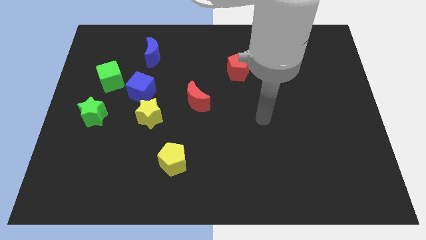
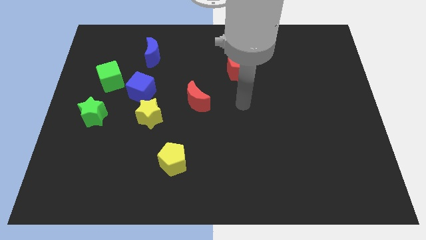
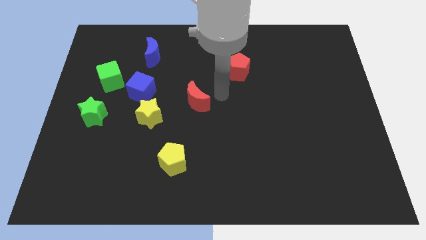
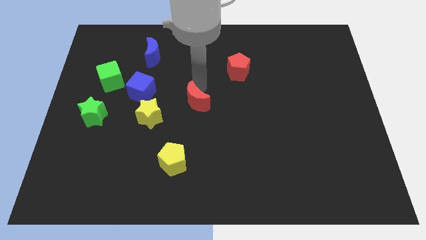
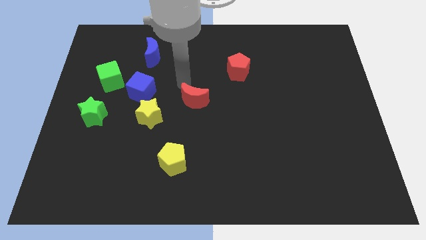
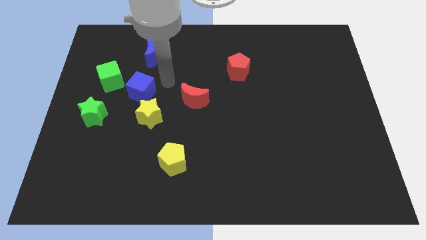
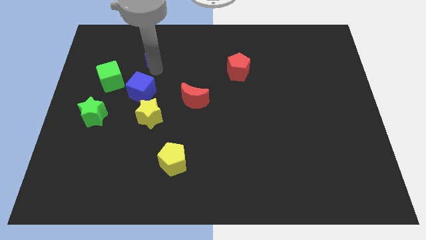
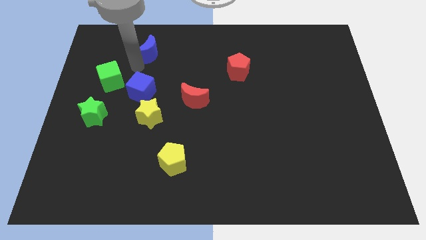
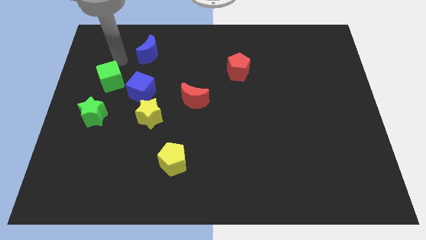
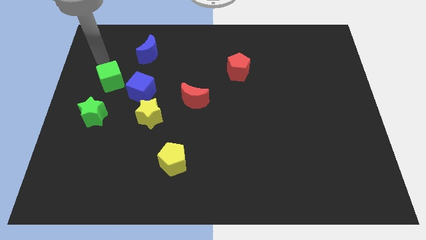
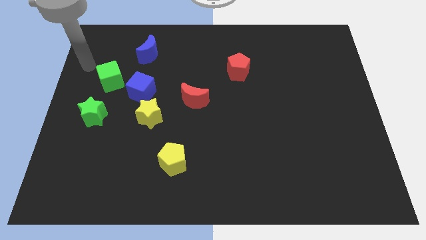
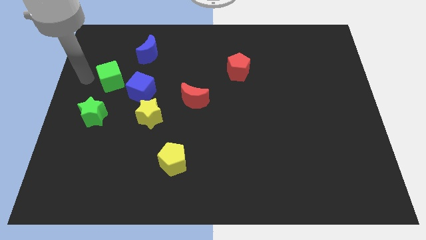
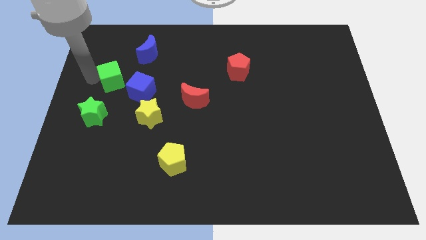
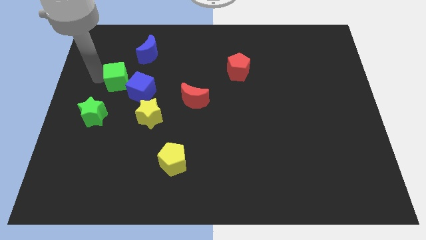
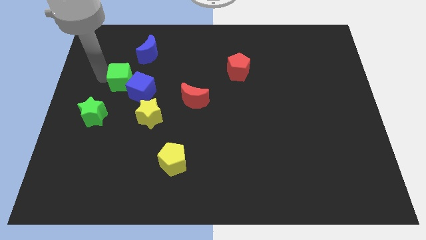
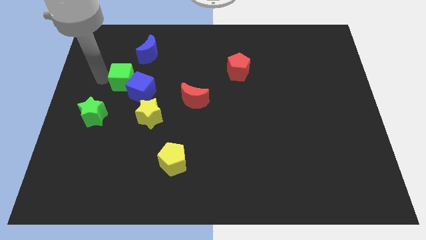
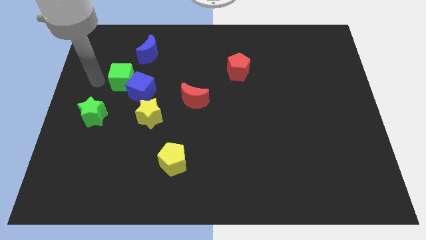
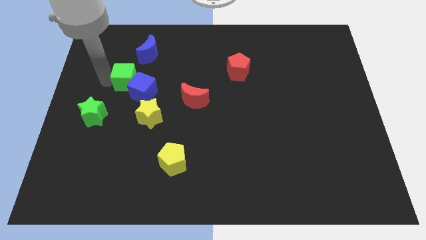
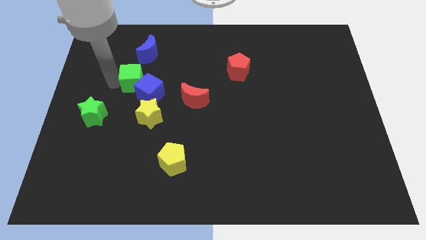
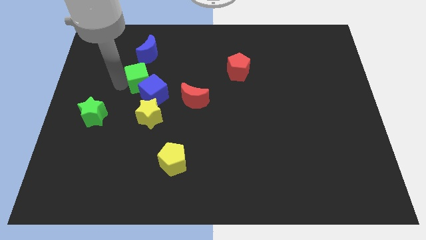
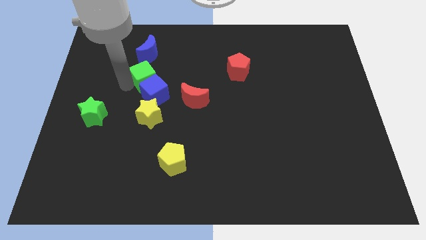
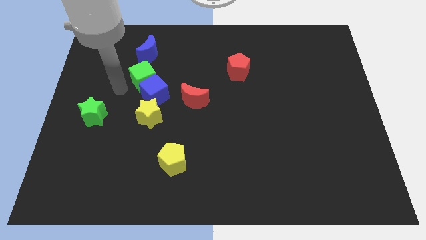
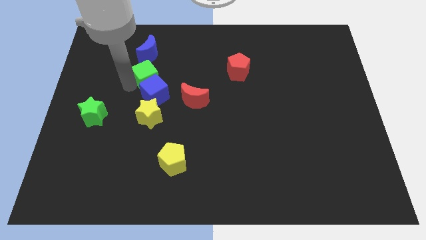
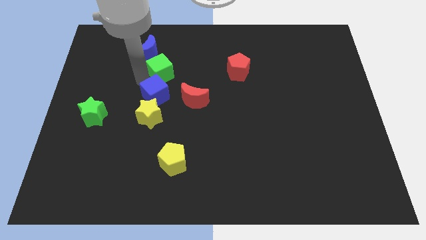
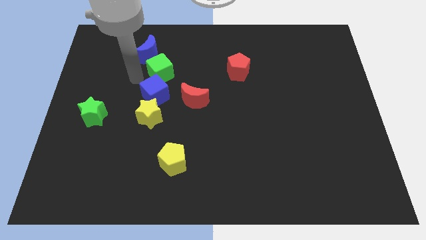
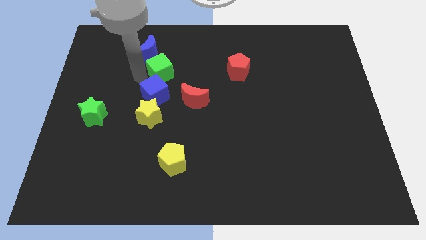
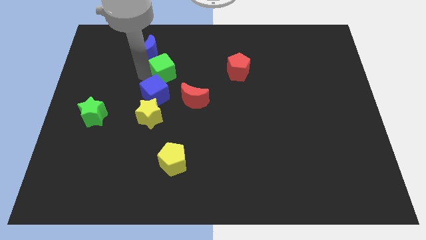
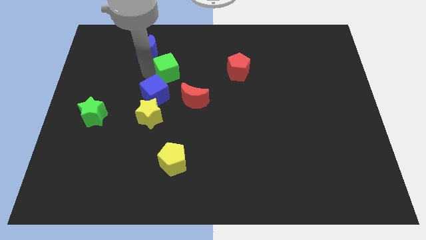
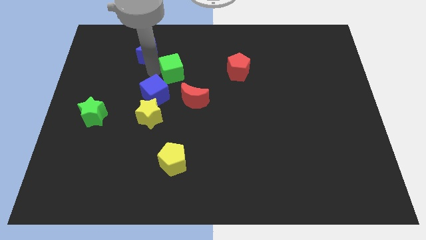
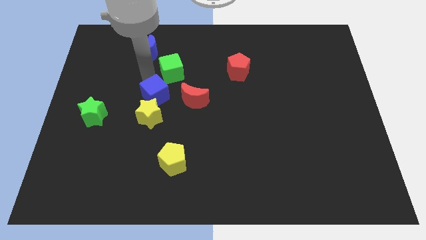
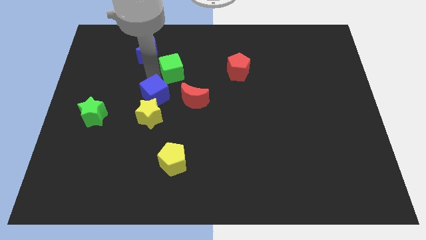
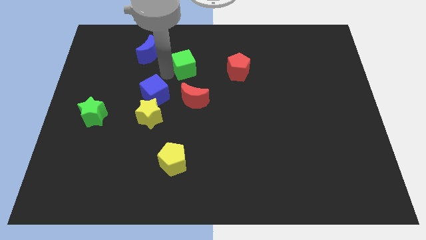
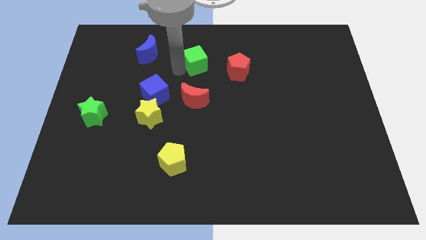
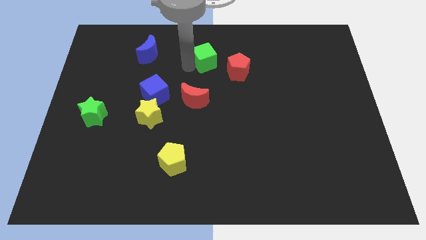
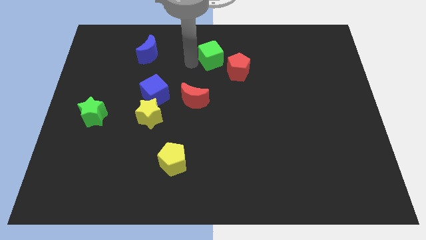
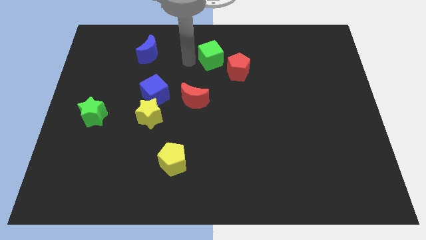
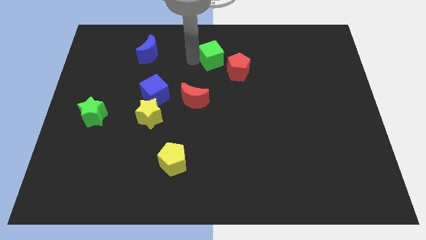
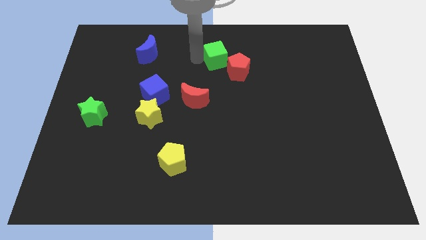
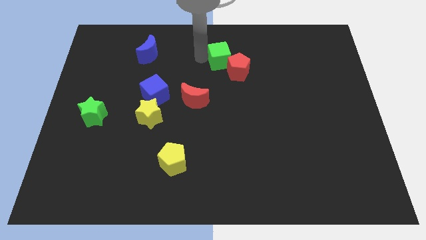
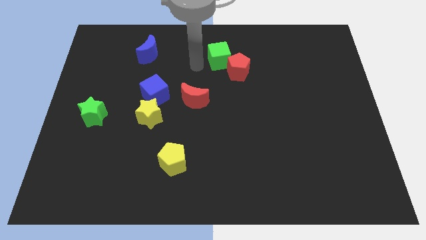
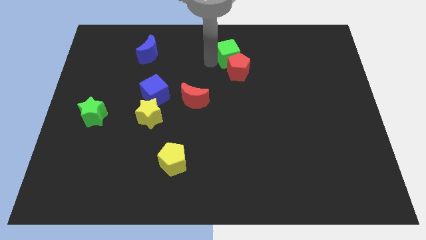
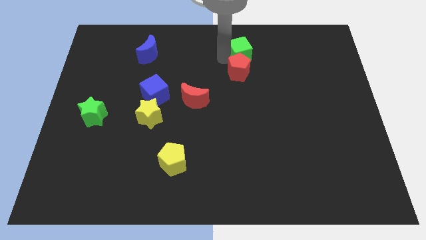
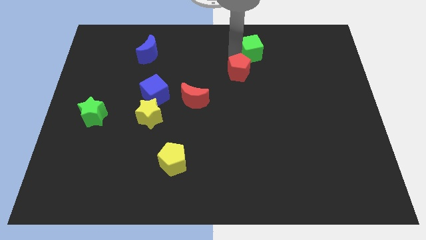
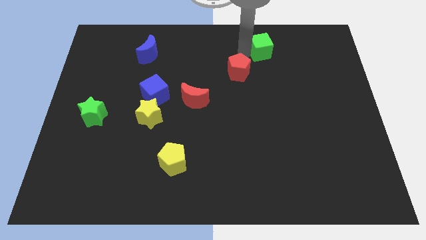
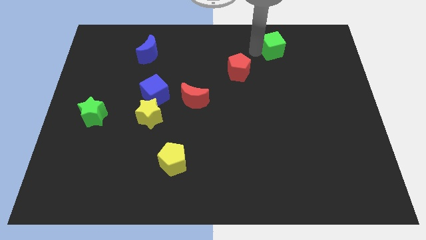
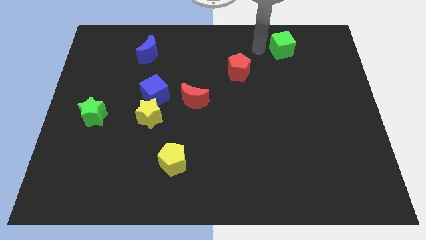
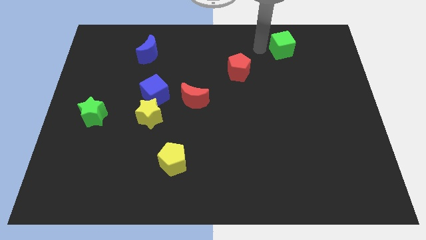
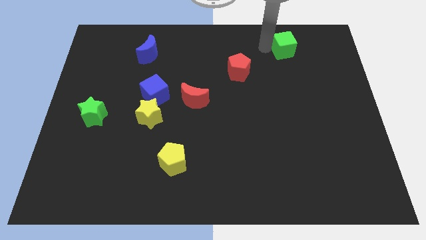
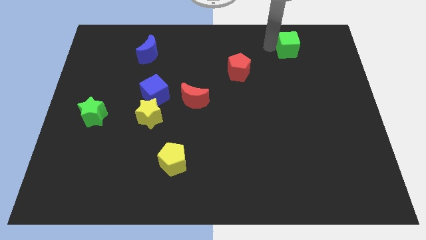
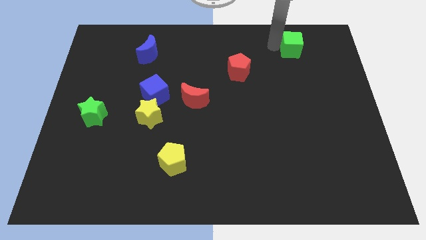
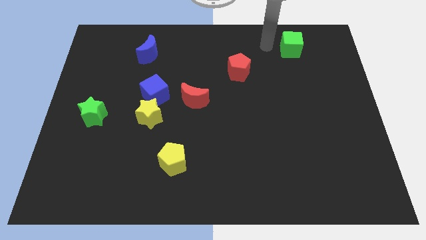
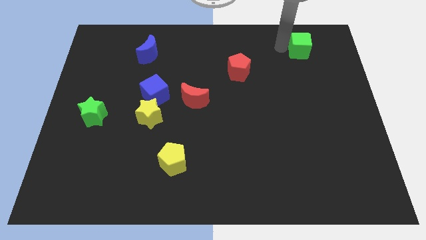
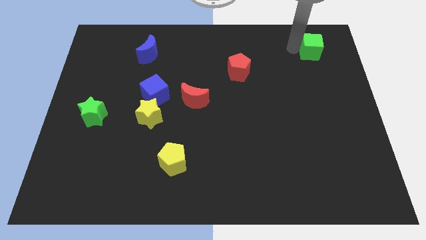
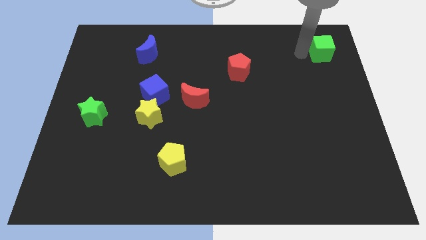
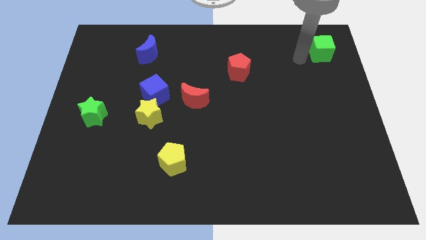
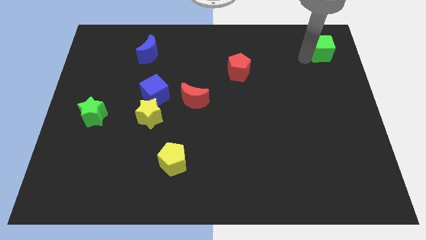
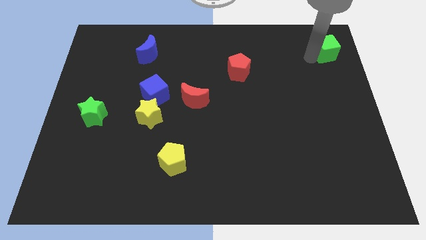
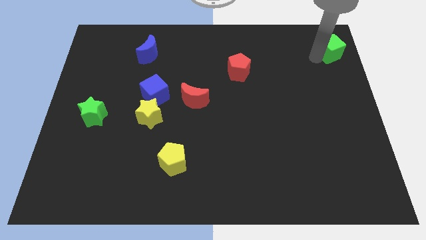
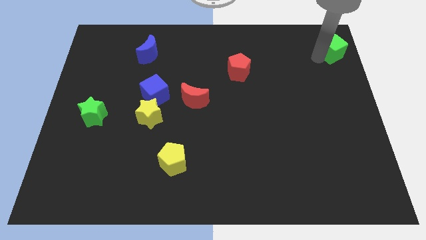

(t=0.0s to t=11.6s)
slide the green cube to the upper right corner

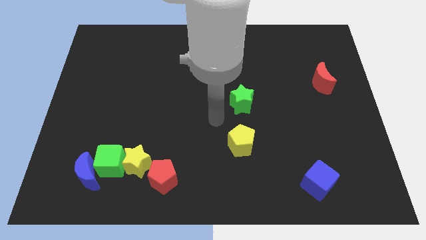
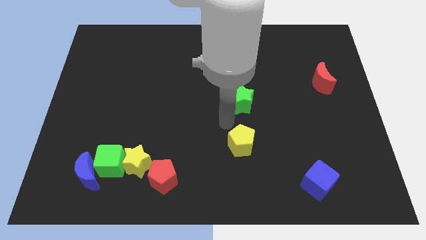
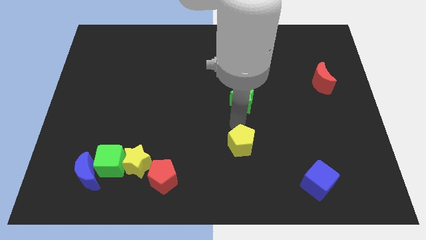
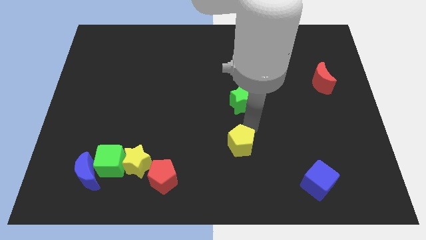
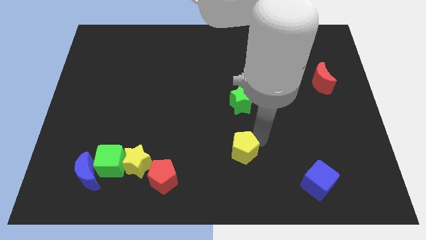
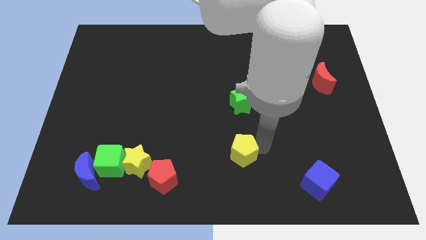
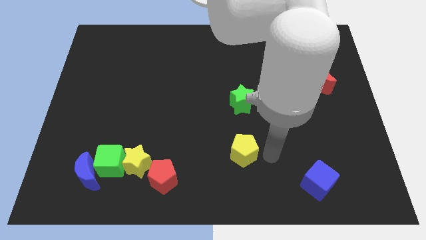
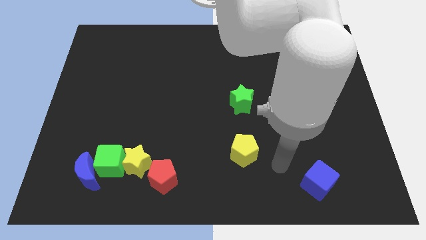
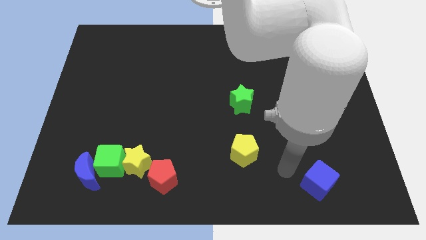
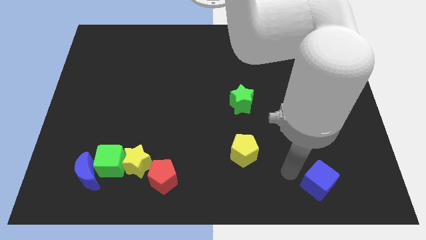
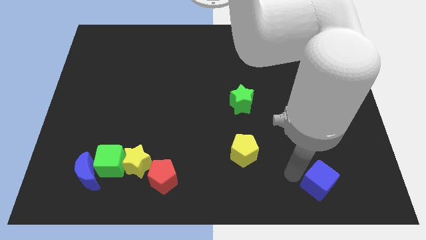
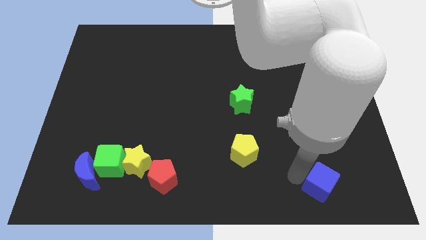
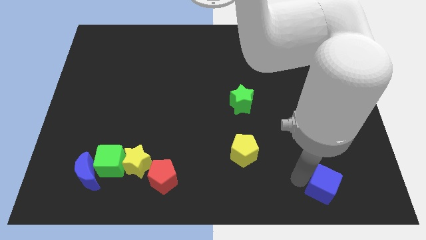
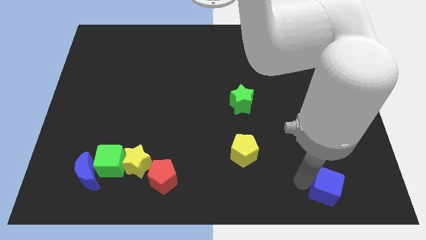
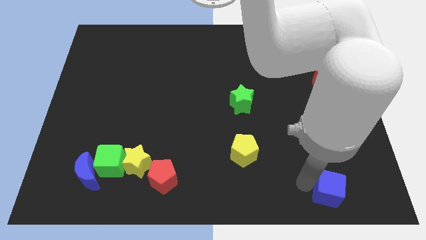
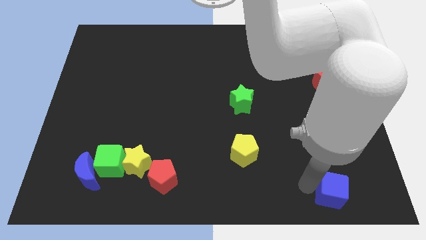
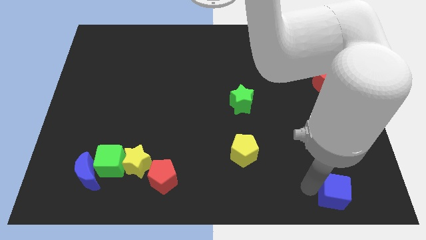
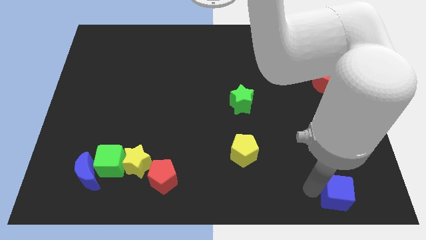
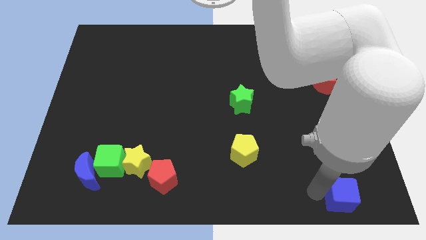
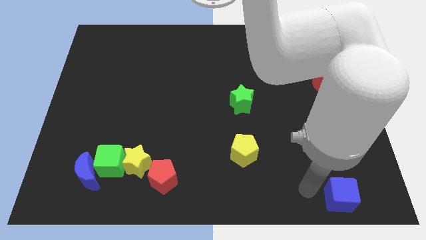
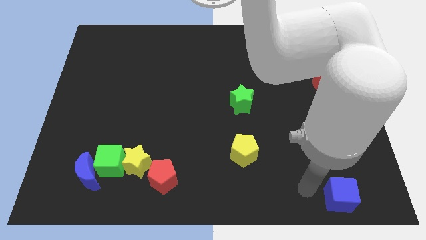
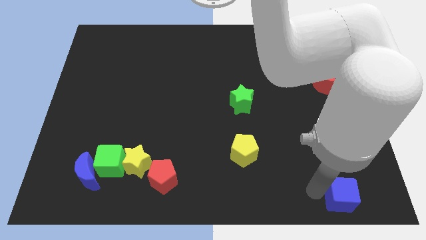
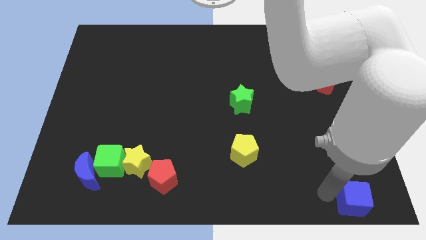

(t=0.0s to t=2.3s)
push the blue cube to the bottom right corner
